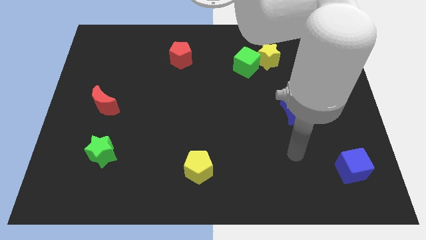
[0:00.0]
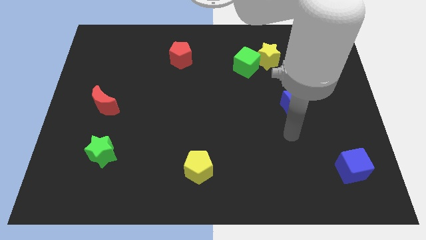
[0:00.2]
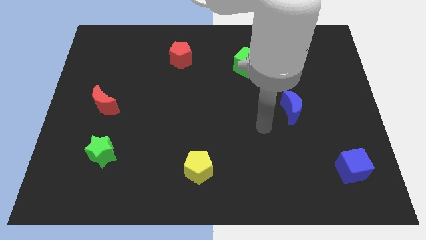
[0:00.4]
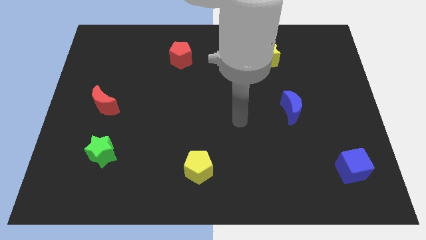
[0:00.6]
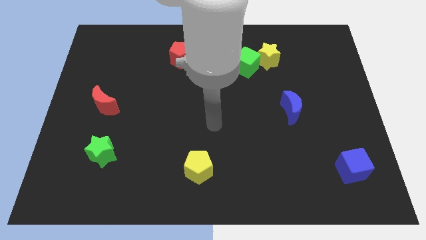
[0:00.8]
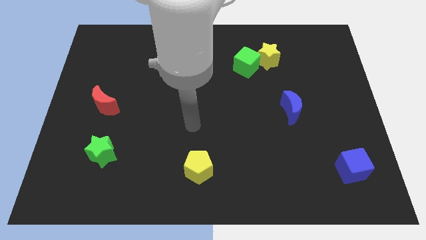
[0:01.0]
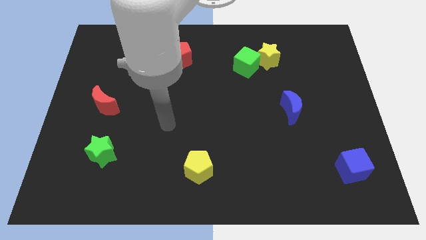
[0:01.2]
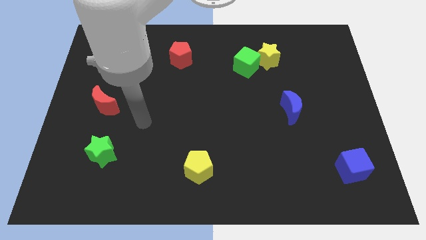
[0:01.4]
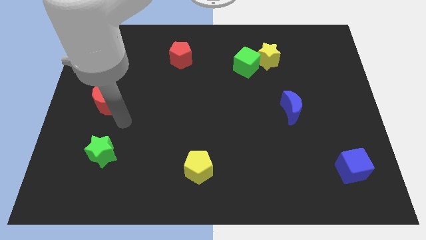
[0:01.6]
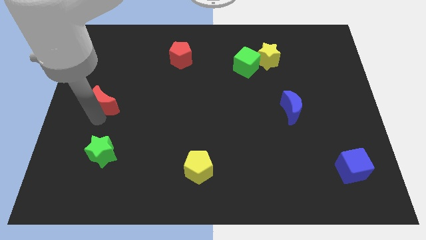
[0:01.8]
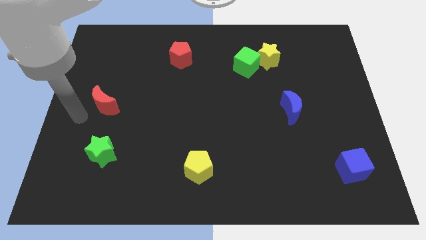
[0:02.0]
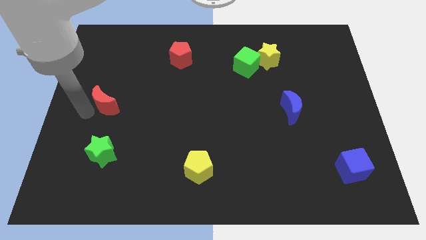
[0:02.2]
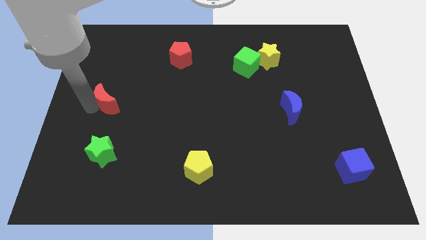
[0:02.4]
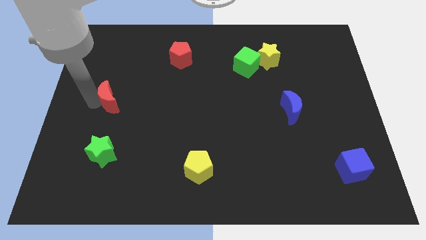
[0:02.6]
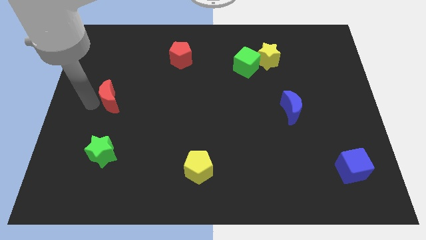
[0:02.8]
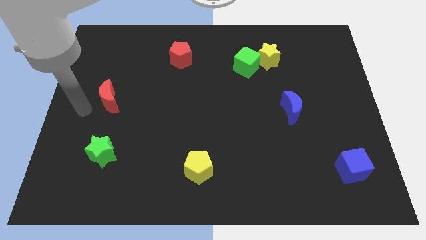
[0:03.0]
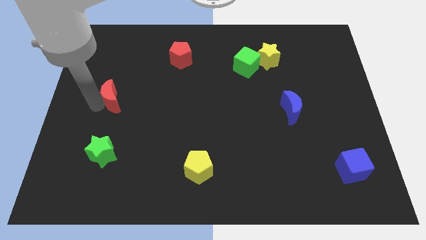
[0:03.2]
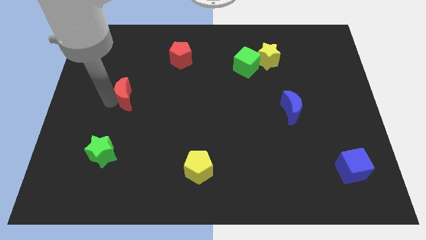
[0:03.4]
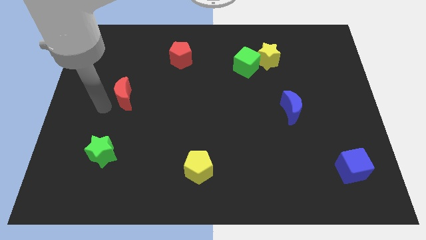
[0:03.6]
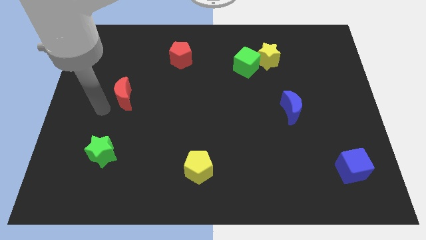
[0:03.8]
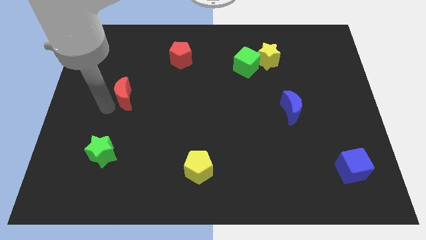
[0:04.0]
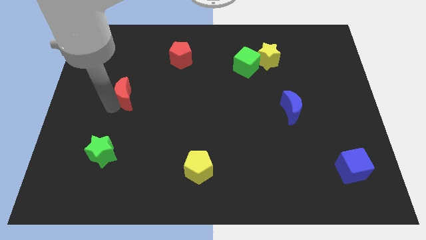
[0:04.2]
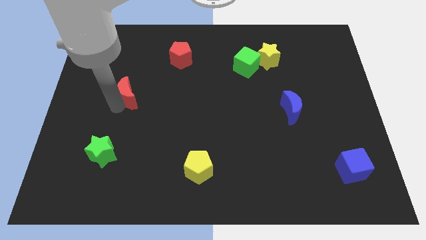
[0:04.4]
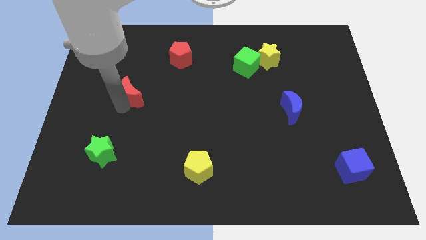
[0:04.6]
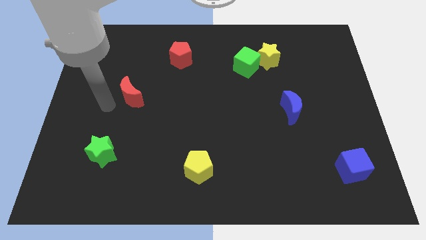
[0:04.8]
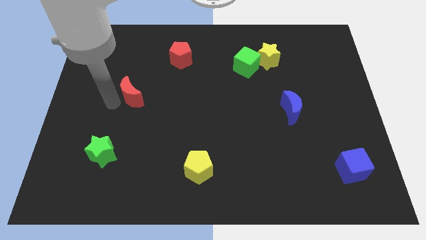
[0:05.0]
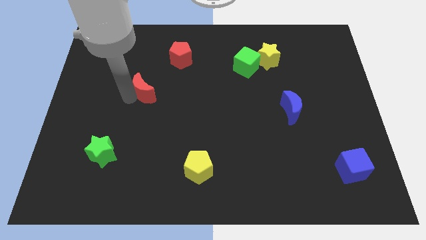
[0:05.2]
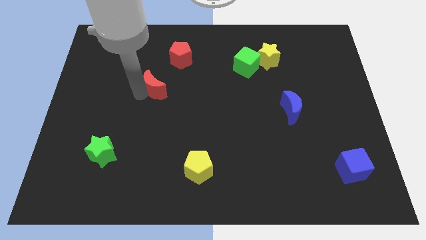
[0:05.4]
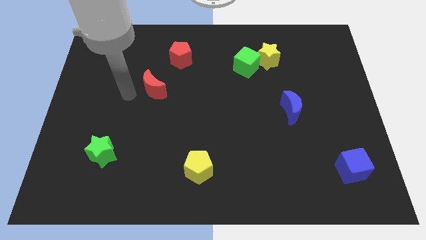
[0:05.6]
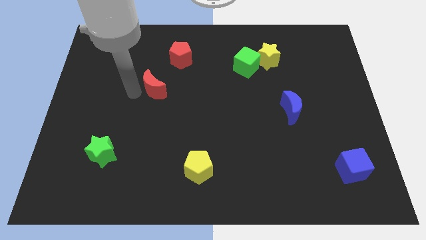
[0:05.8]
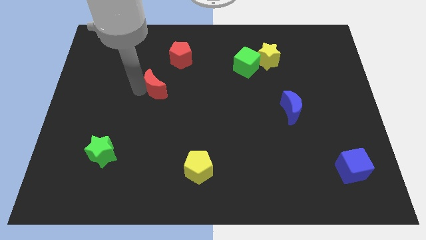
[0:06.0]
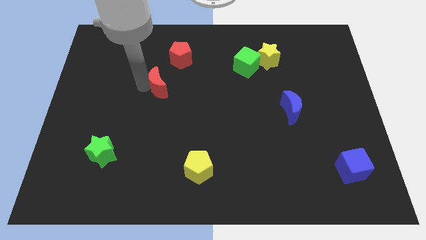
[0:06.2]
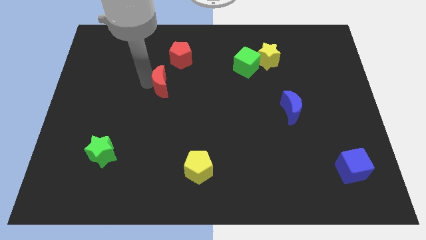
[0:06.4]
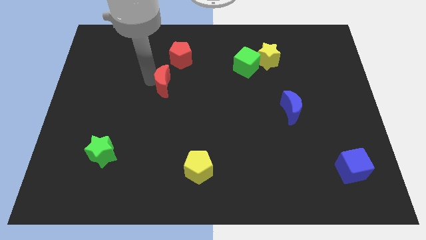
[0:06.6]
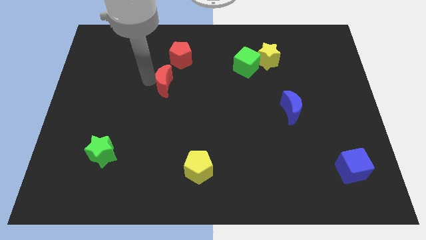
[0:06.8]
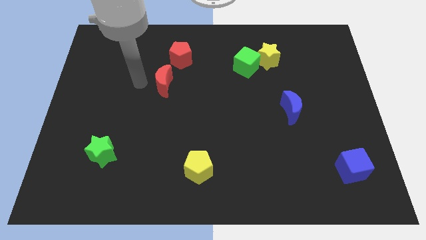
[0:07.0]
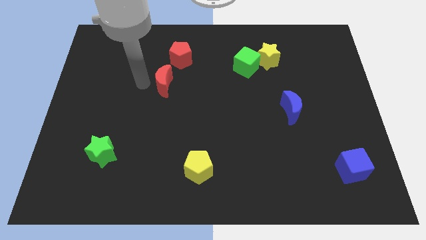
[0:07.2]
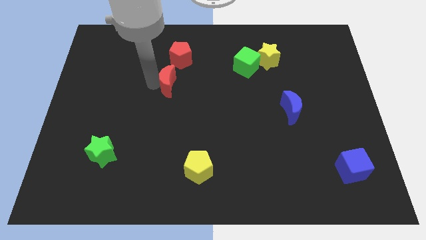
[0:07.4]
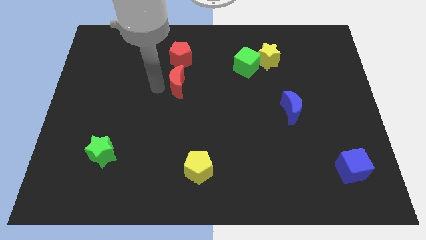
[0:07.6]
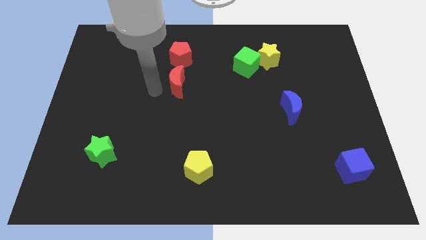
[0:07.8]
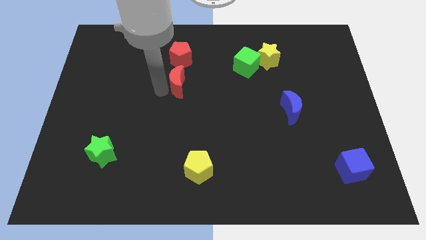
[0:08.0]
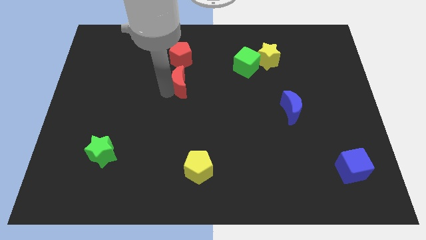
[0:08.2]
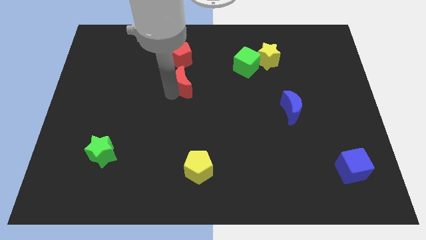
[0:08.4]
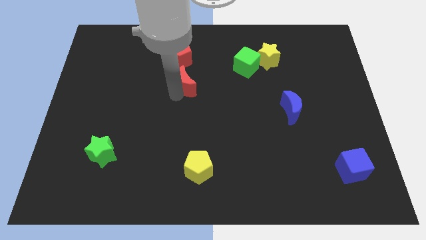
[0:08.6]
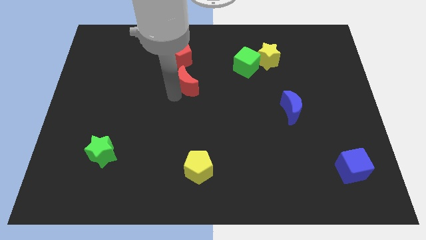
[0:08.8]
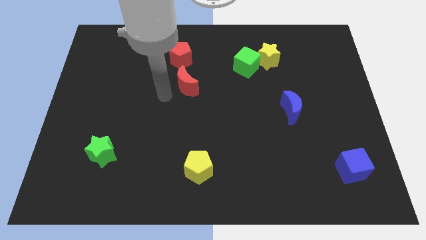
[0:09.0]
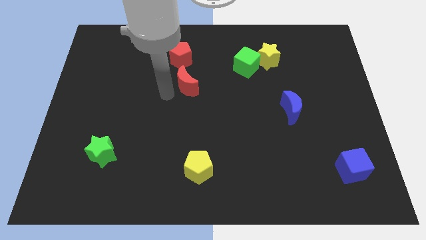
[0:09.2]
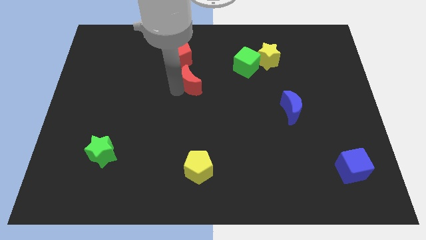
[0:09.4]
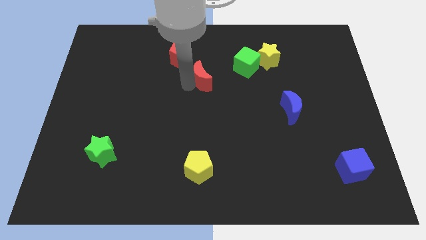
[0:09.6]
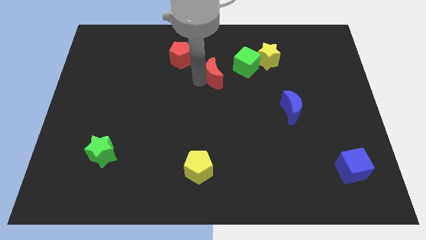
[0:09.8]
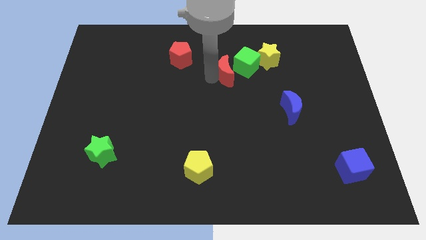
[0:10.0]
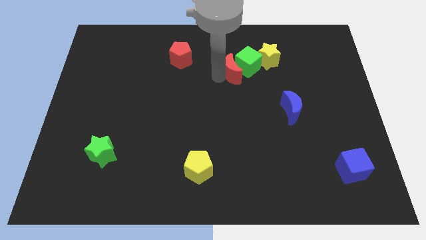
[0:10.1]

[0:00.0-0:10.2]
push the red moon close to the green cube

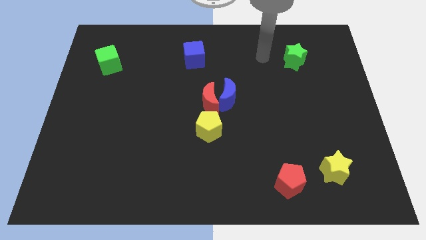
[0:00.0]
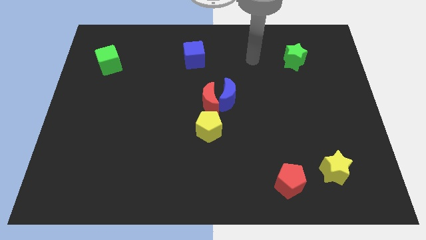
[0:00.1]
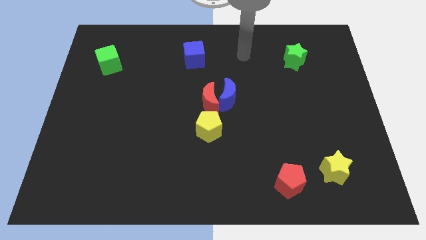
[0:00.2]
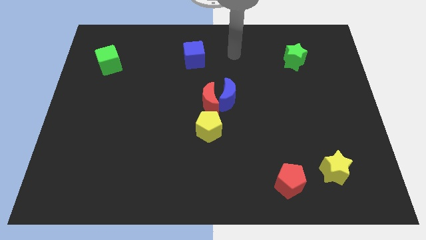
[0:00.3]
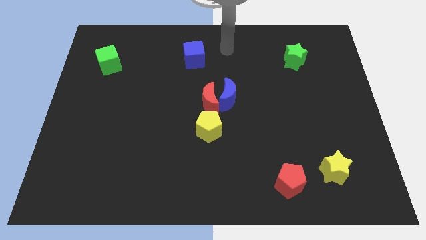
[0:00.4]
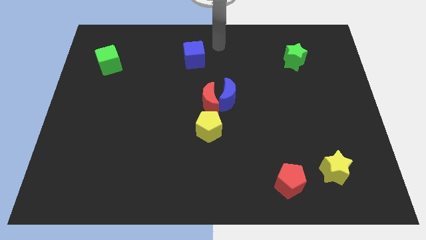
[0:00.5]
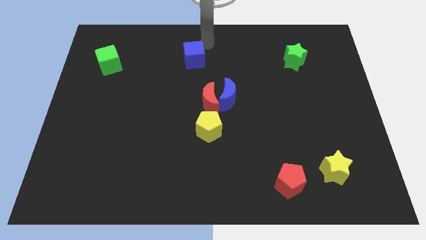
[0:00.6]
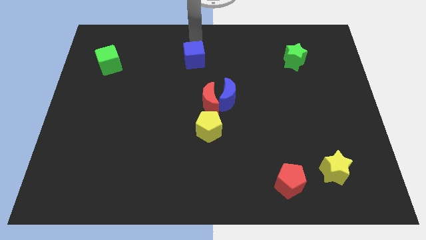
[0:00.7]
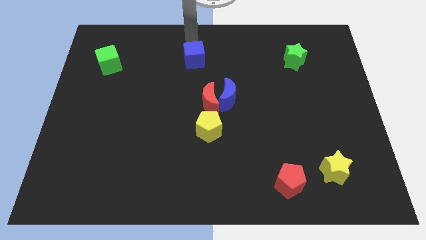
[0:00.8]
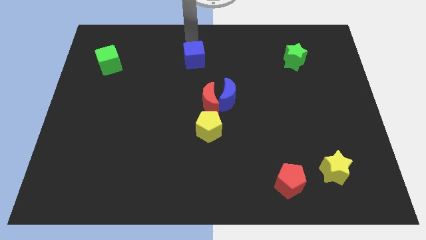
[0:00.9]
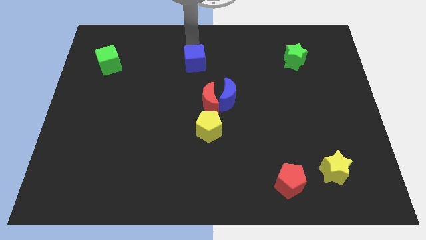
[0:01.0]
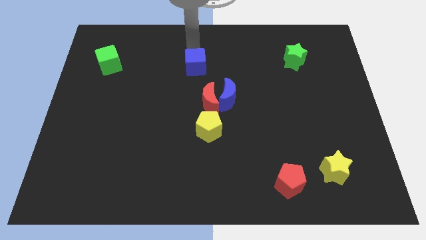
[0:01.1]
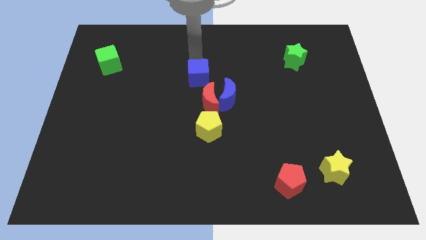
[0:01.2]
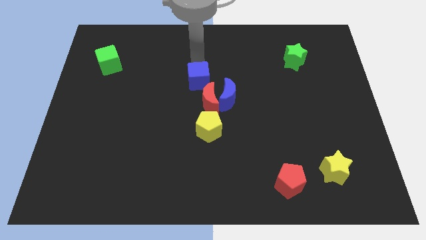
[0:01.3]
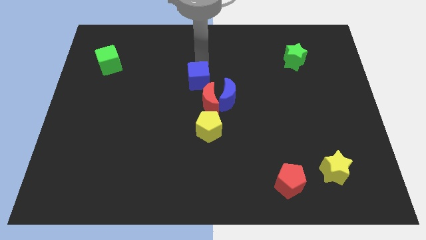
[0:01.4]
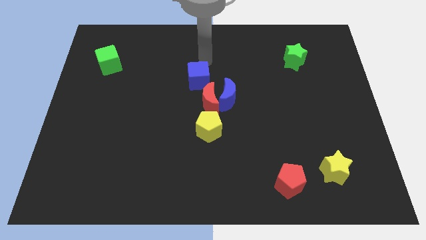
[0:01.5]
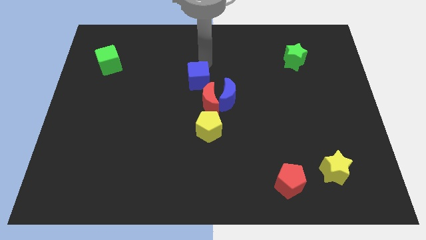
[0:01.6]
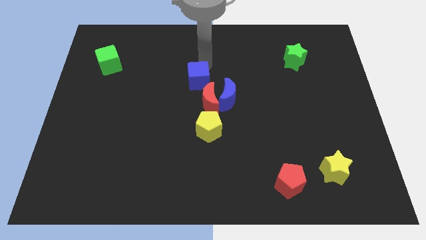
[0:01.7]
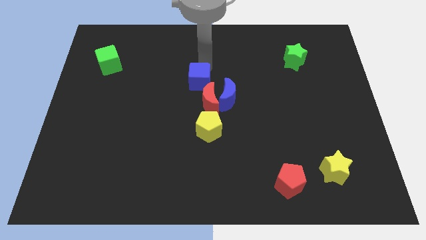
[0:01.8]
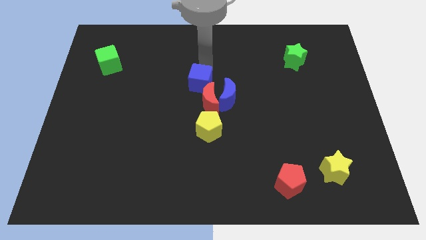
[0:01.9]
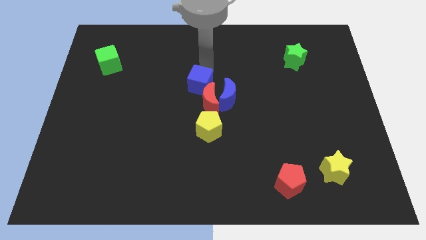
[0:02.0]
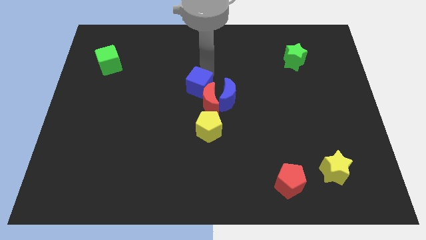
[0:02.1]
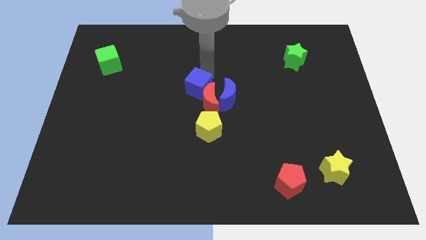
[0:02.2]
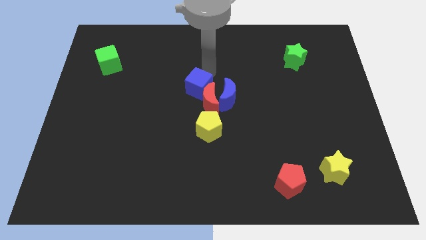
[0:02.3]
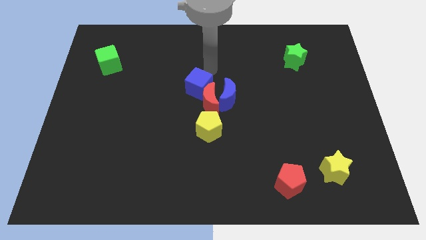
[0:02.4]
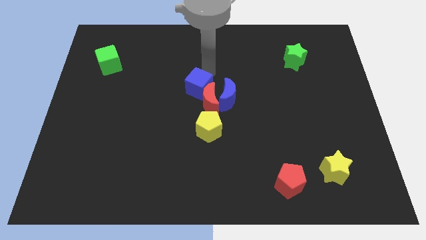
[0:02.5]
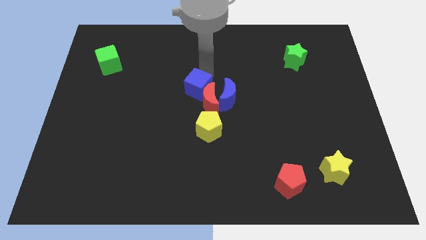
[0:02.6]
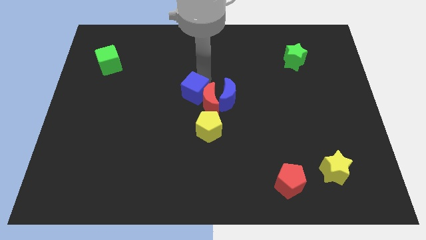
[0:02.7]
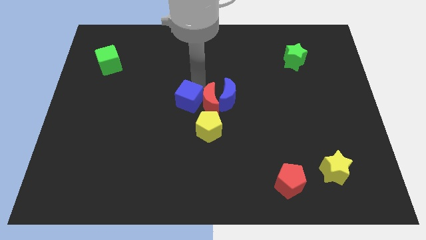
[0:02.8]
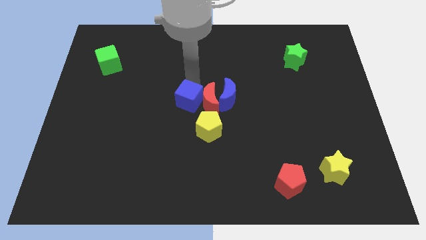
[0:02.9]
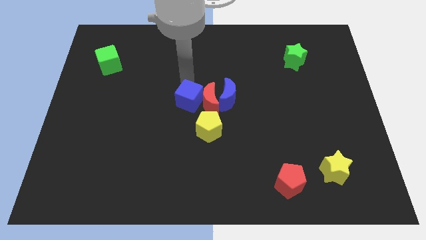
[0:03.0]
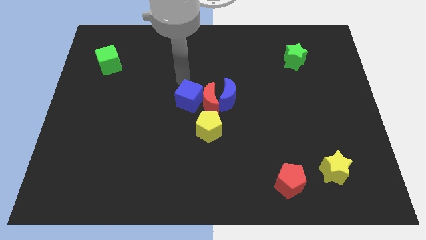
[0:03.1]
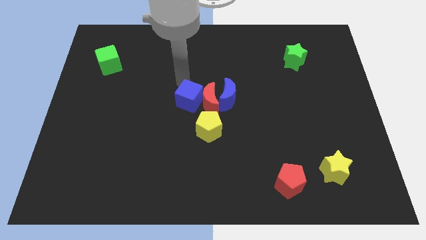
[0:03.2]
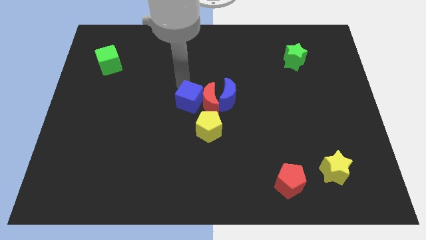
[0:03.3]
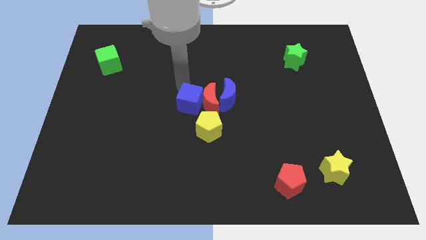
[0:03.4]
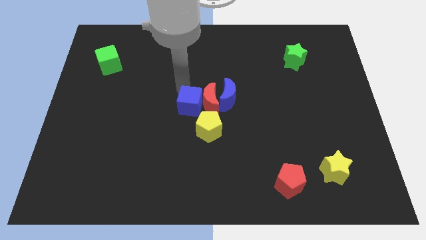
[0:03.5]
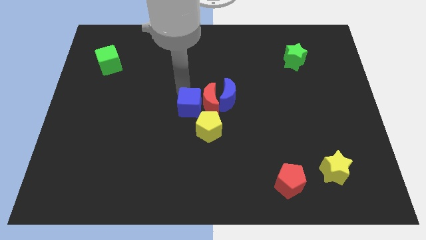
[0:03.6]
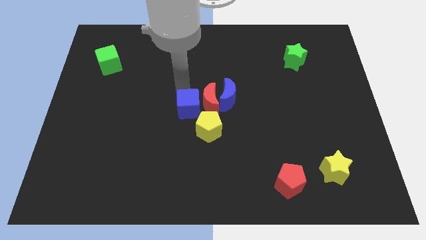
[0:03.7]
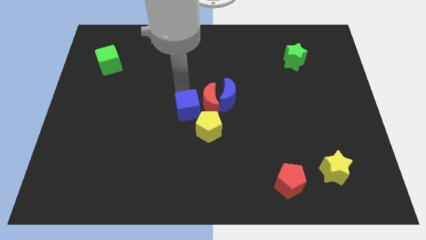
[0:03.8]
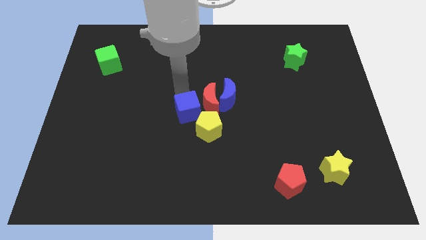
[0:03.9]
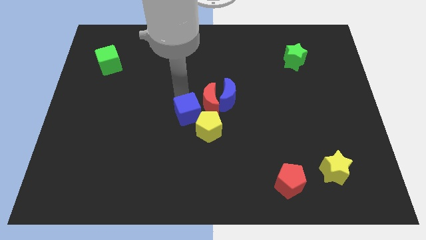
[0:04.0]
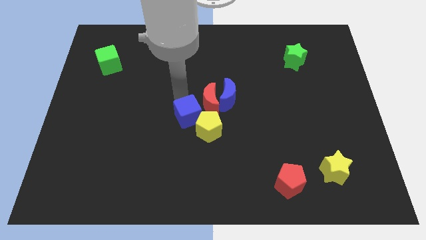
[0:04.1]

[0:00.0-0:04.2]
move the blue cube to the yellow pentagon
